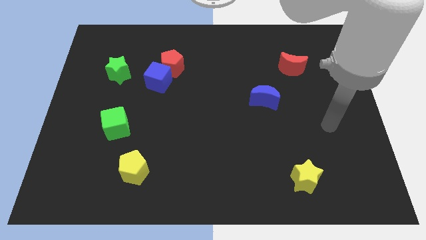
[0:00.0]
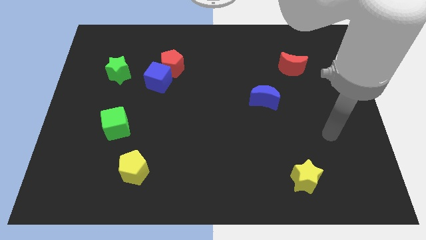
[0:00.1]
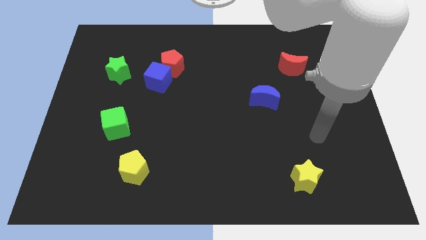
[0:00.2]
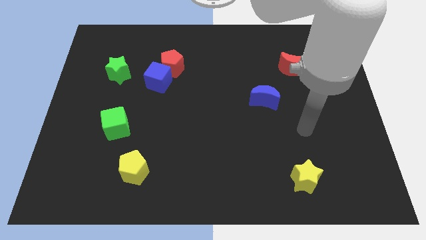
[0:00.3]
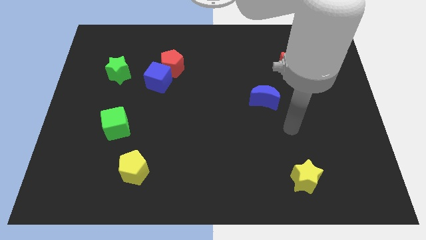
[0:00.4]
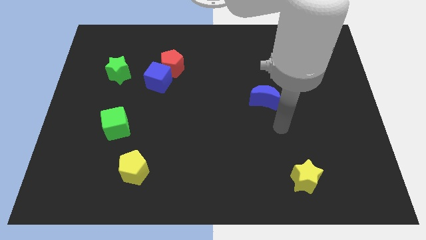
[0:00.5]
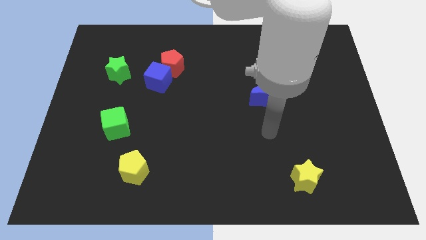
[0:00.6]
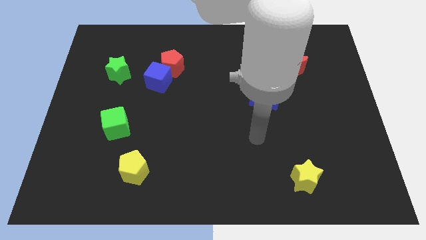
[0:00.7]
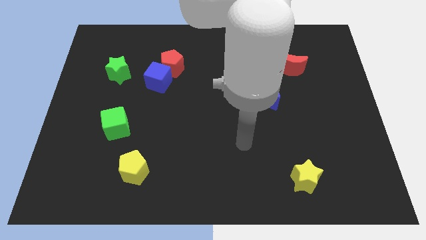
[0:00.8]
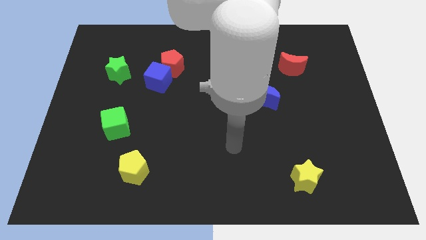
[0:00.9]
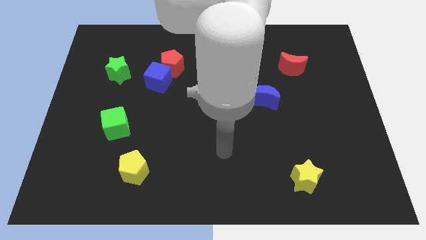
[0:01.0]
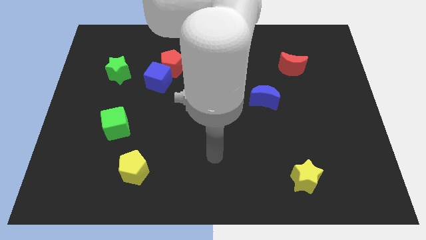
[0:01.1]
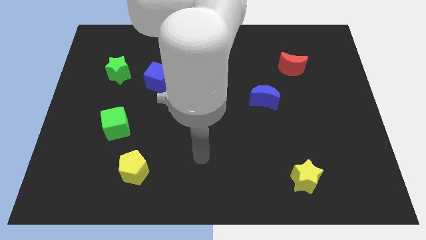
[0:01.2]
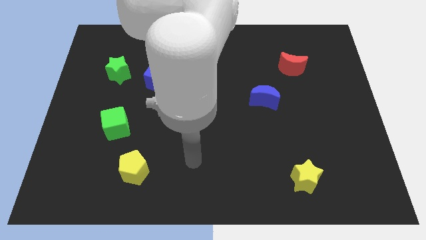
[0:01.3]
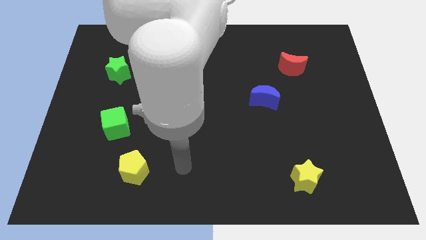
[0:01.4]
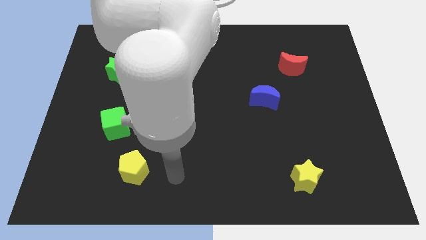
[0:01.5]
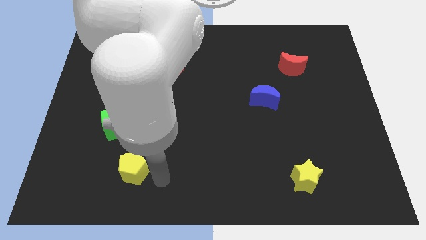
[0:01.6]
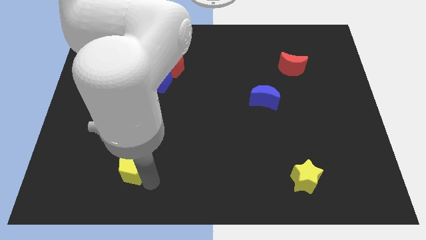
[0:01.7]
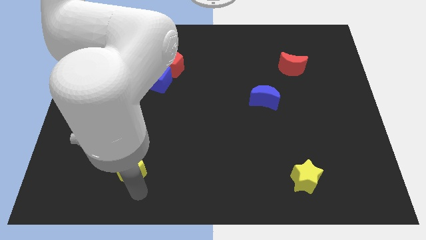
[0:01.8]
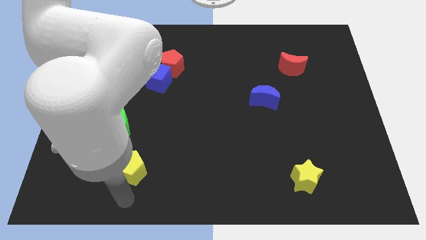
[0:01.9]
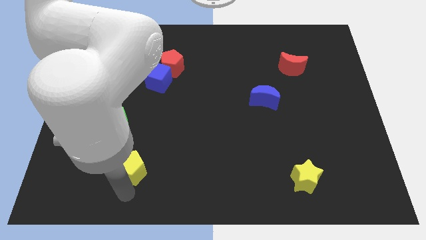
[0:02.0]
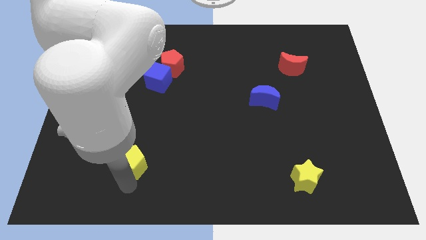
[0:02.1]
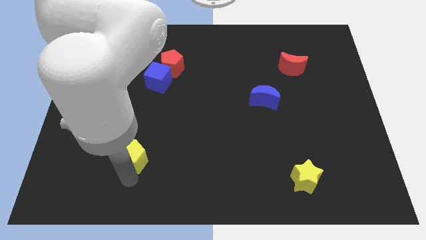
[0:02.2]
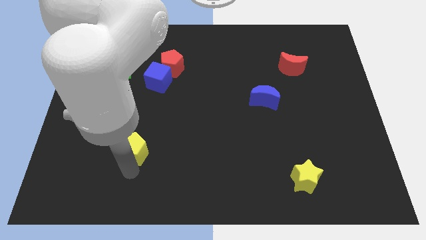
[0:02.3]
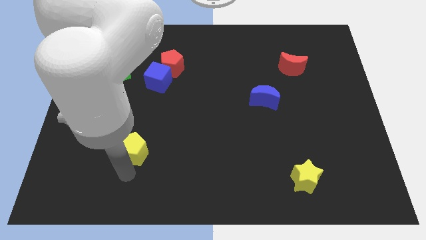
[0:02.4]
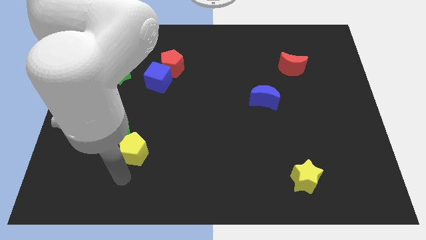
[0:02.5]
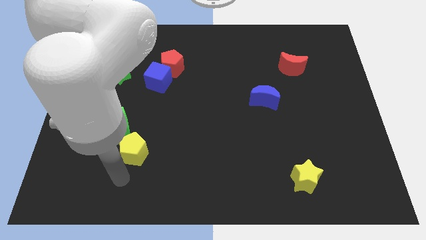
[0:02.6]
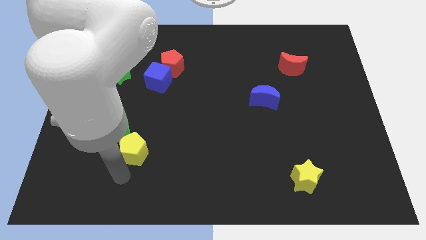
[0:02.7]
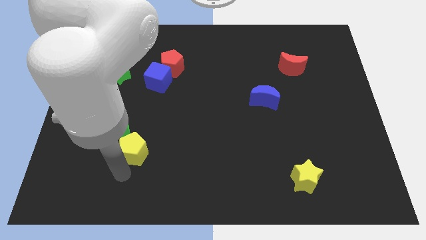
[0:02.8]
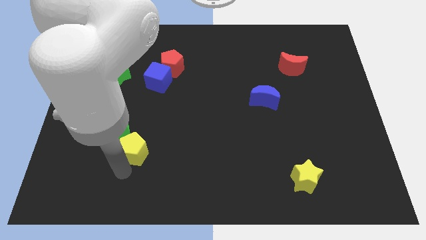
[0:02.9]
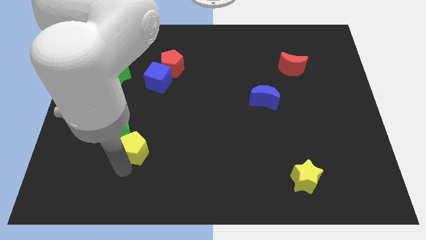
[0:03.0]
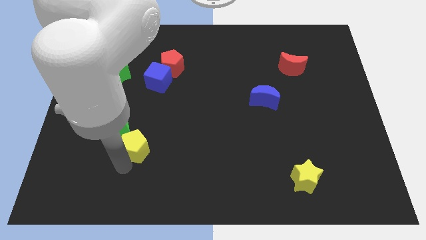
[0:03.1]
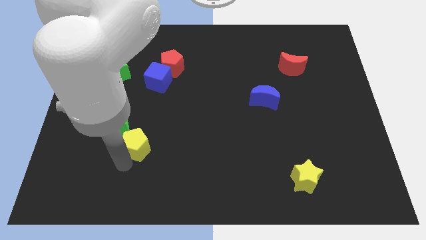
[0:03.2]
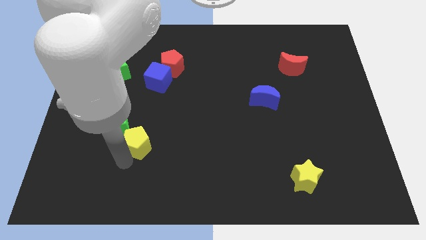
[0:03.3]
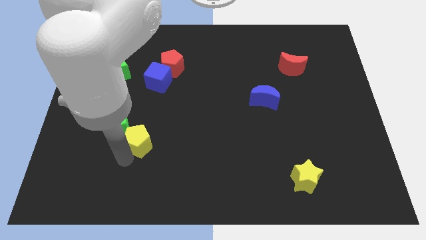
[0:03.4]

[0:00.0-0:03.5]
slightly slide the yellow pentagon up

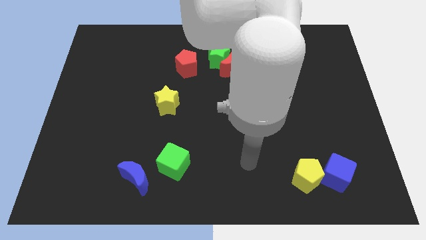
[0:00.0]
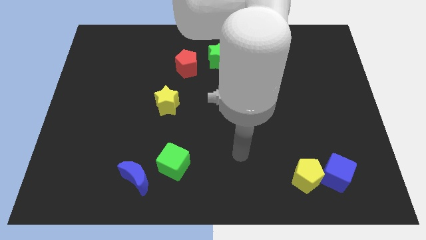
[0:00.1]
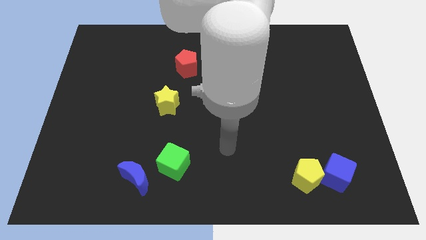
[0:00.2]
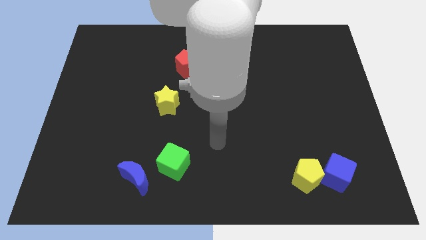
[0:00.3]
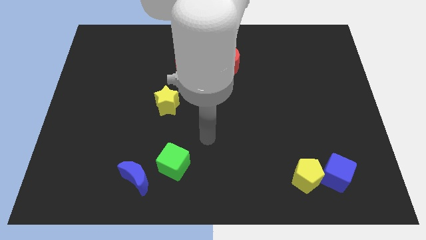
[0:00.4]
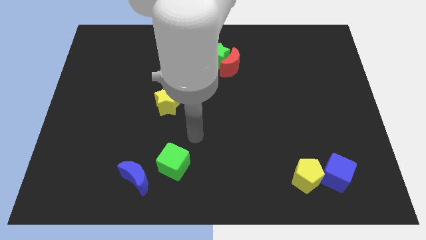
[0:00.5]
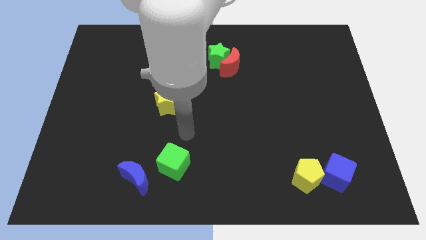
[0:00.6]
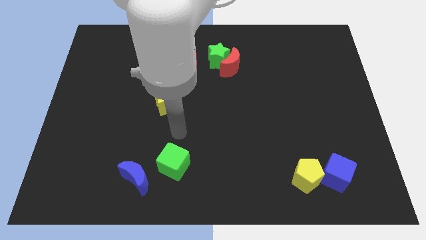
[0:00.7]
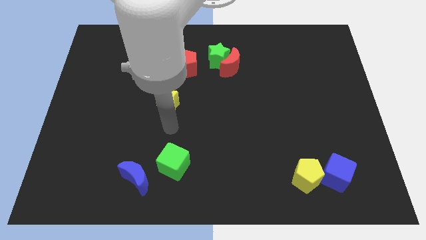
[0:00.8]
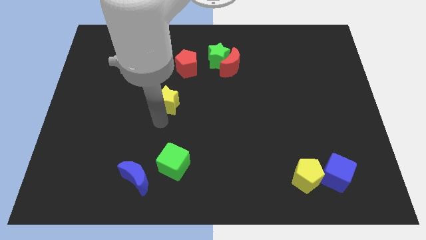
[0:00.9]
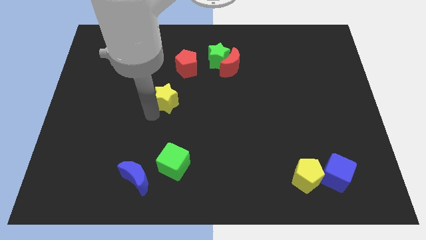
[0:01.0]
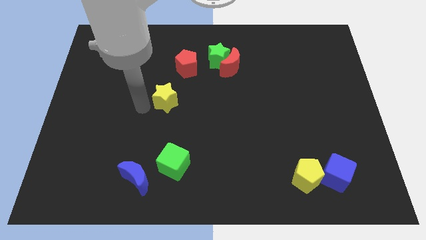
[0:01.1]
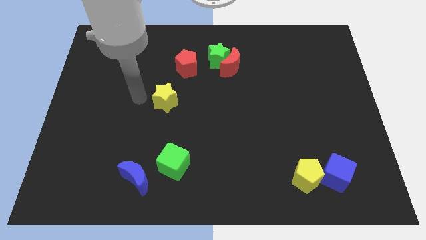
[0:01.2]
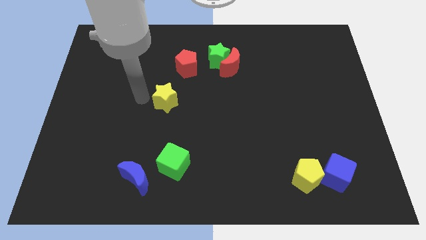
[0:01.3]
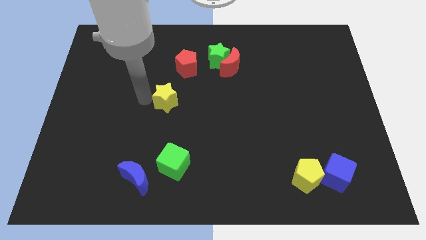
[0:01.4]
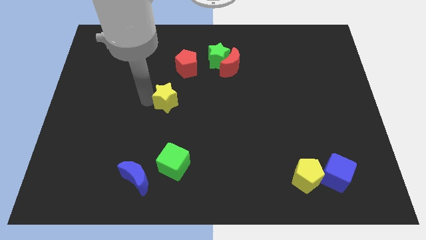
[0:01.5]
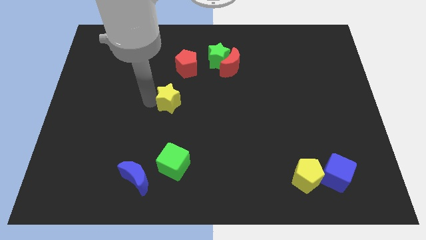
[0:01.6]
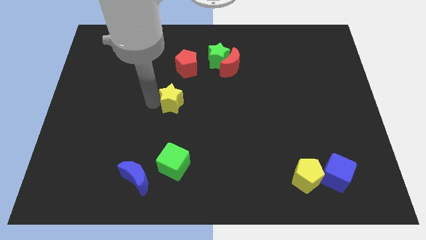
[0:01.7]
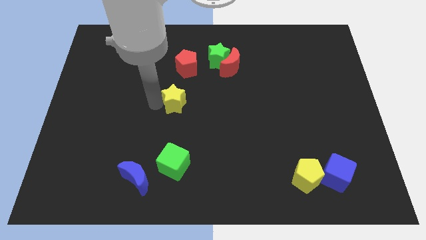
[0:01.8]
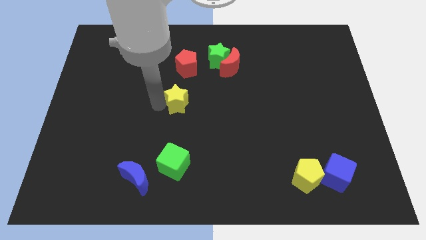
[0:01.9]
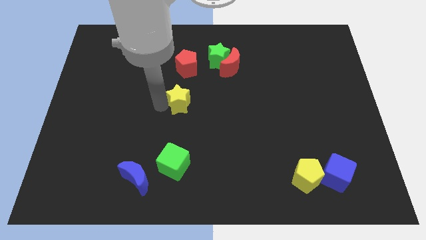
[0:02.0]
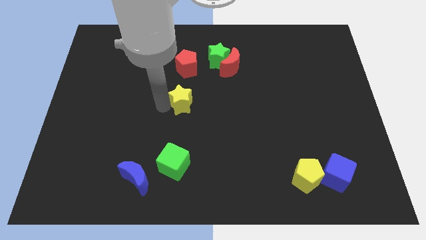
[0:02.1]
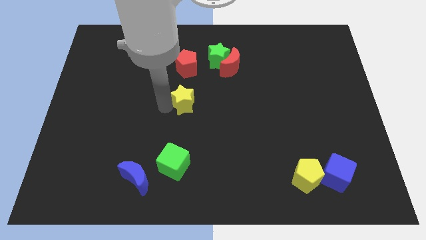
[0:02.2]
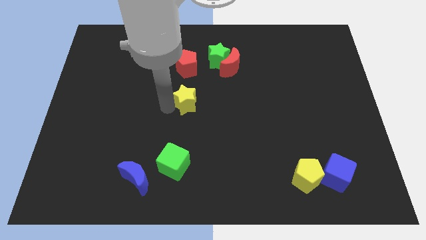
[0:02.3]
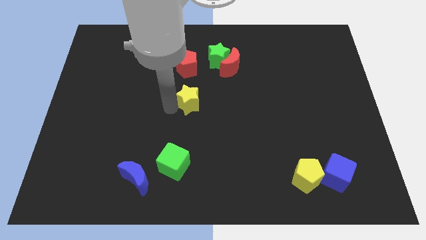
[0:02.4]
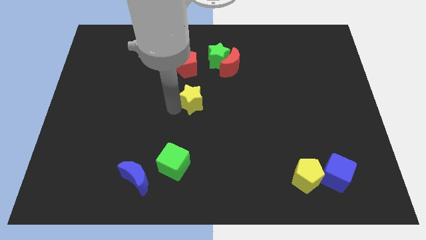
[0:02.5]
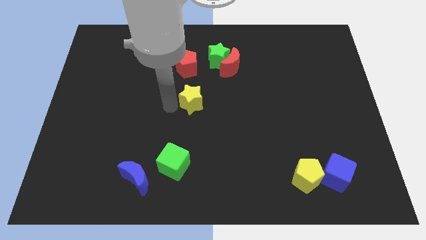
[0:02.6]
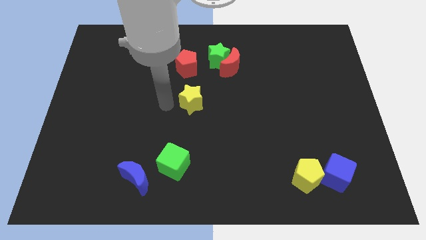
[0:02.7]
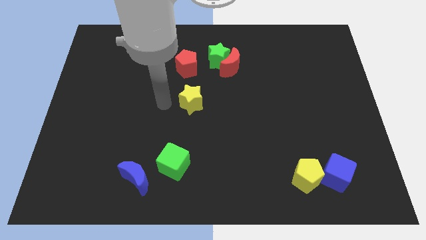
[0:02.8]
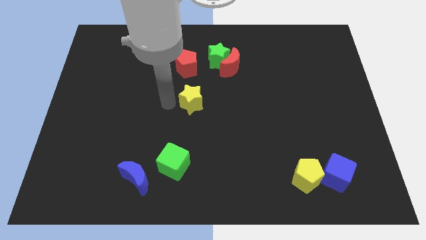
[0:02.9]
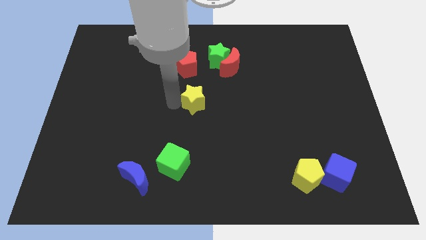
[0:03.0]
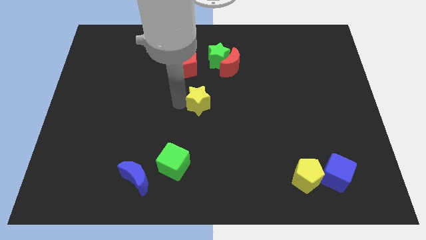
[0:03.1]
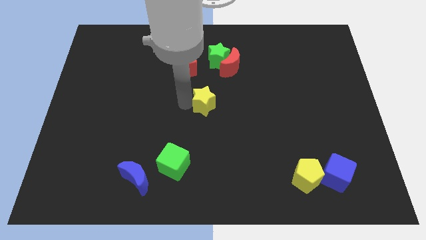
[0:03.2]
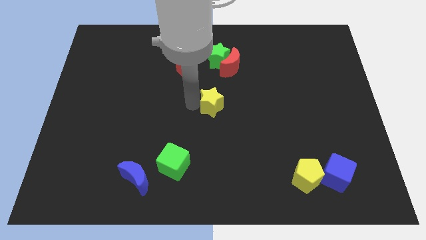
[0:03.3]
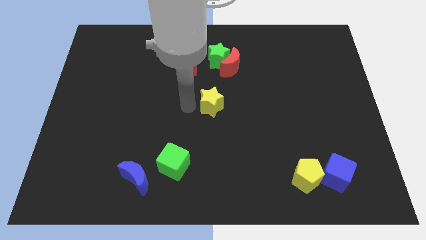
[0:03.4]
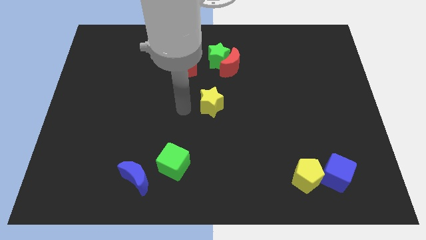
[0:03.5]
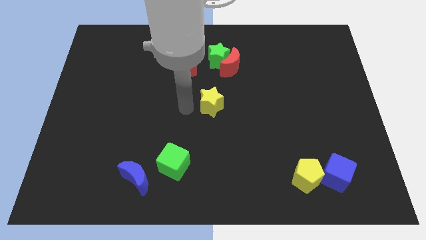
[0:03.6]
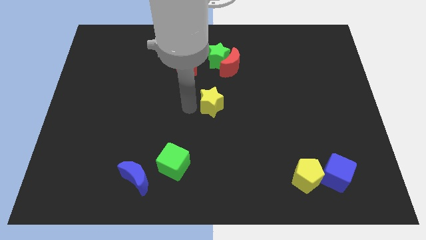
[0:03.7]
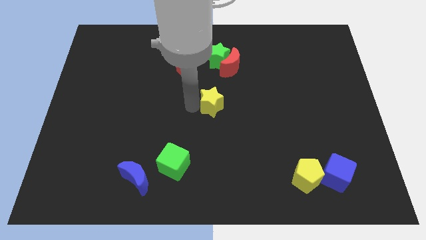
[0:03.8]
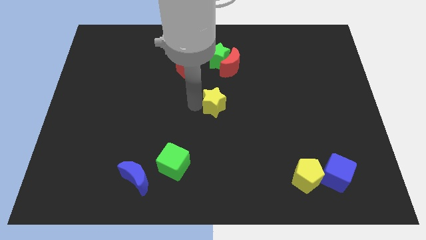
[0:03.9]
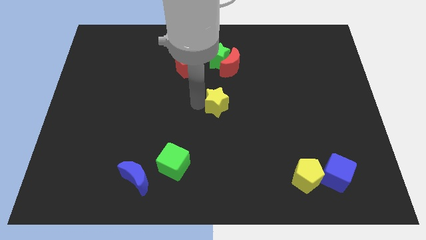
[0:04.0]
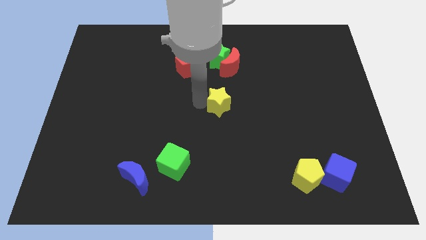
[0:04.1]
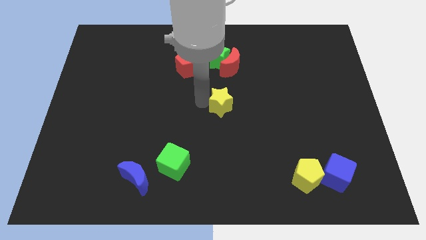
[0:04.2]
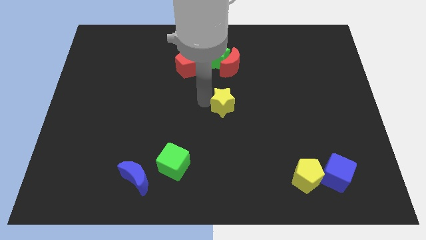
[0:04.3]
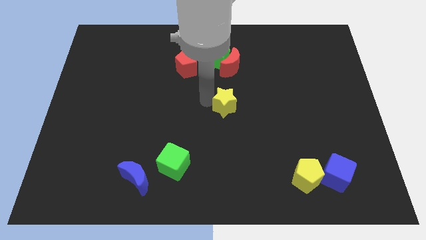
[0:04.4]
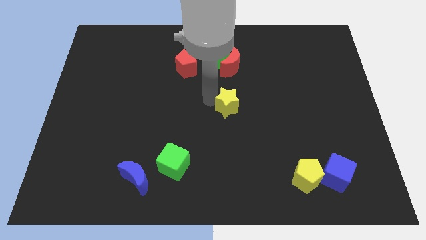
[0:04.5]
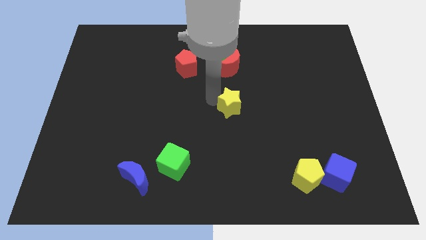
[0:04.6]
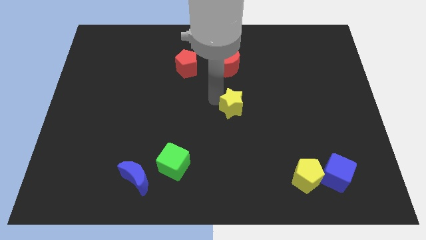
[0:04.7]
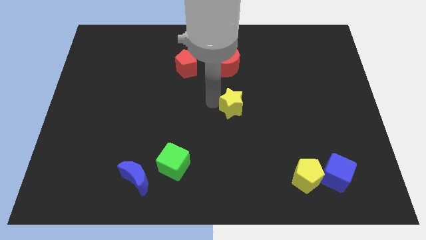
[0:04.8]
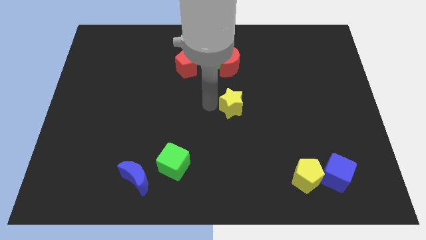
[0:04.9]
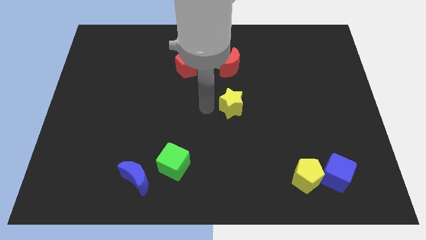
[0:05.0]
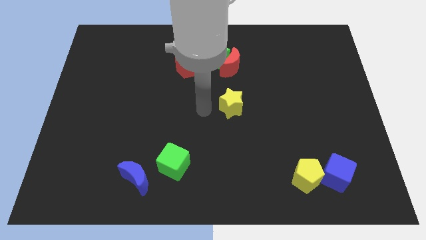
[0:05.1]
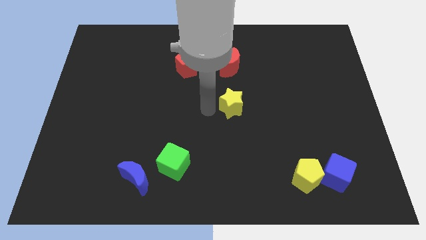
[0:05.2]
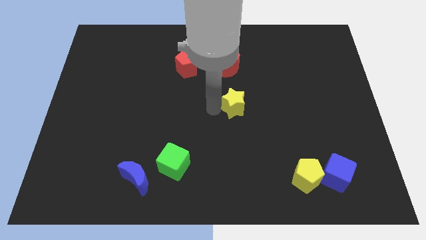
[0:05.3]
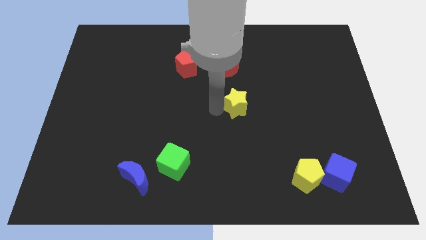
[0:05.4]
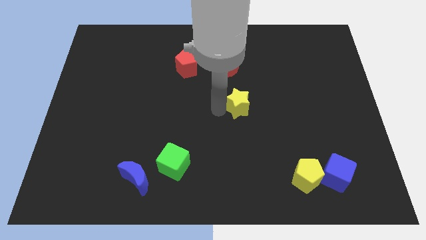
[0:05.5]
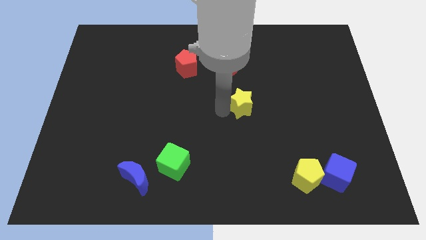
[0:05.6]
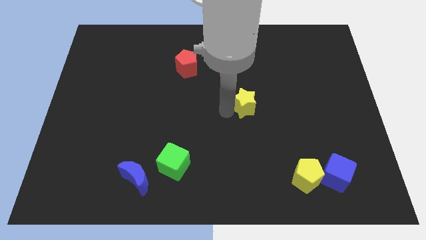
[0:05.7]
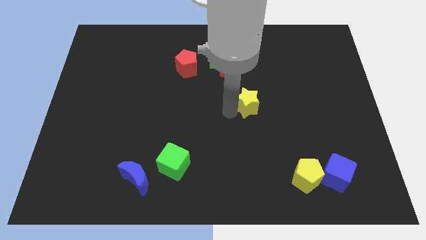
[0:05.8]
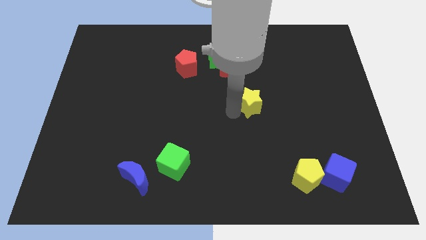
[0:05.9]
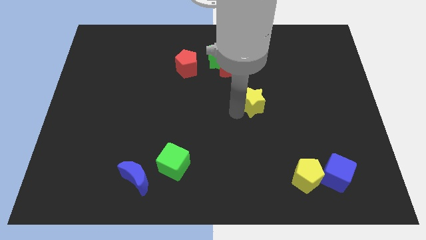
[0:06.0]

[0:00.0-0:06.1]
move the yellow star to the right
